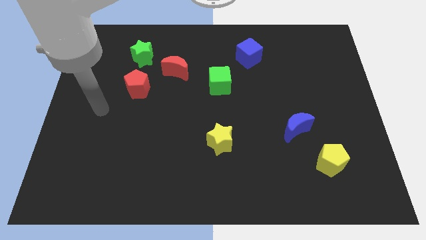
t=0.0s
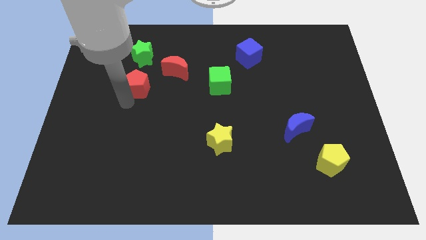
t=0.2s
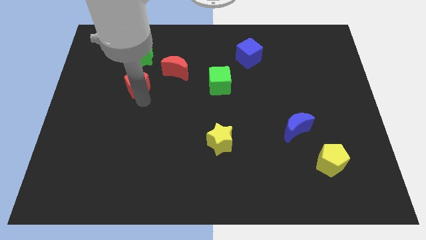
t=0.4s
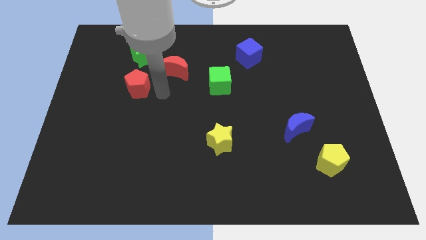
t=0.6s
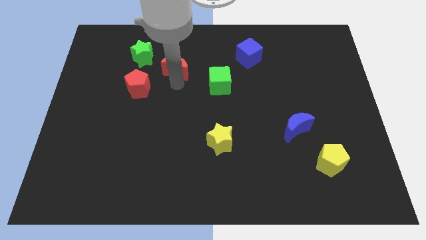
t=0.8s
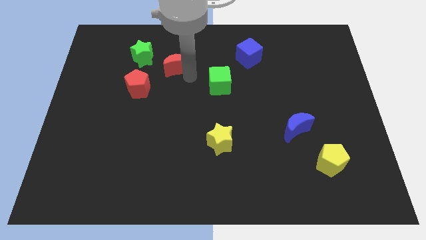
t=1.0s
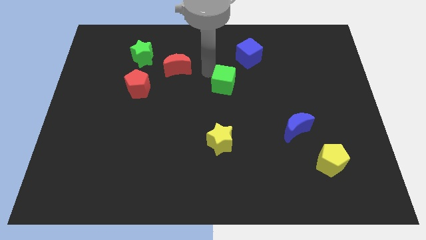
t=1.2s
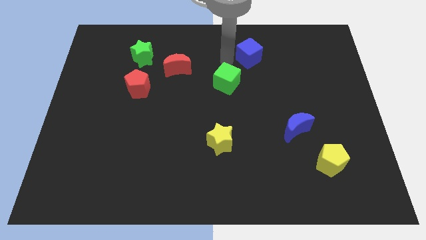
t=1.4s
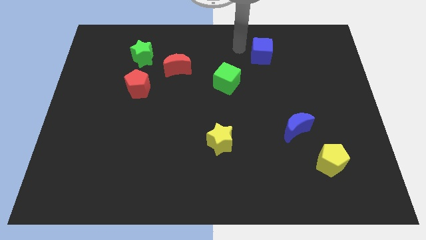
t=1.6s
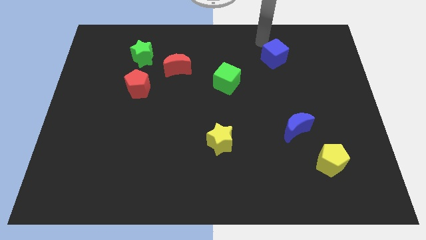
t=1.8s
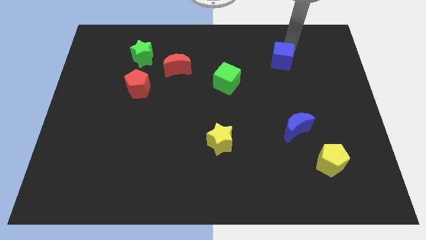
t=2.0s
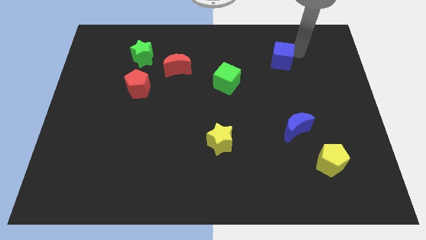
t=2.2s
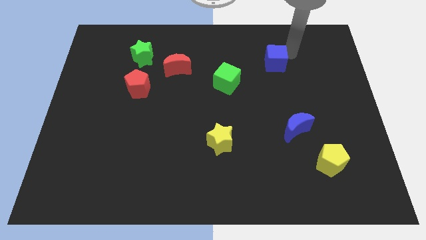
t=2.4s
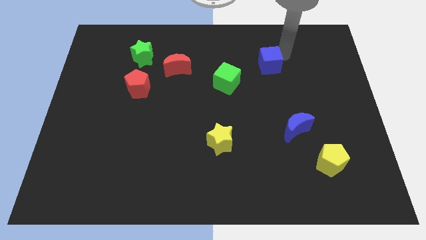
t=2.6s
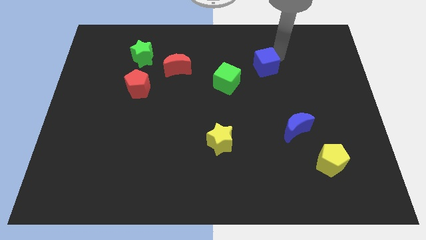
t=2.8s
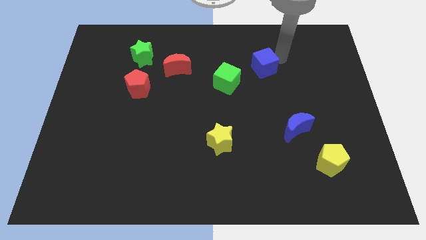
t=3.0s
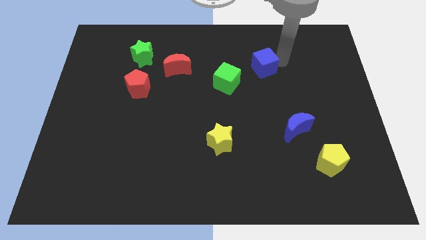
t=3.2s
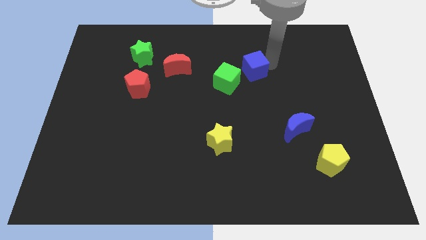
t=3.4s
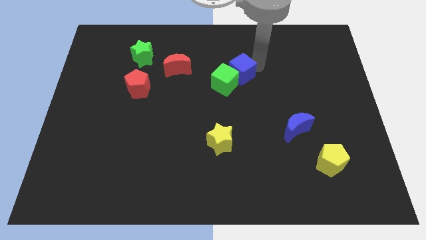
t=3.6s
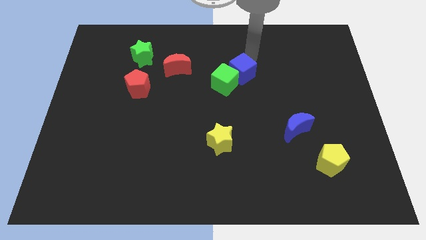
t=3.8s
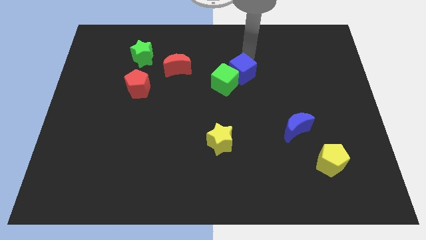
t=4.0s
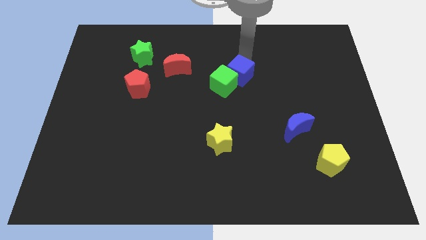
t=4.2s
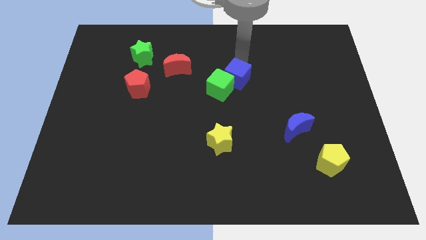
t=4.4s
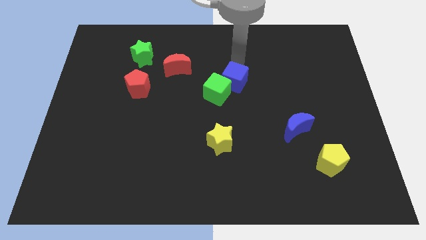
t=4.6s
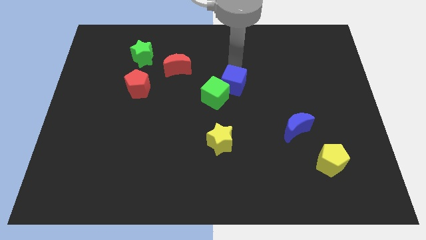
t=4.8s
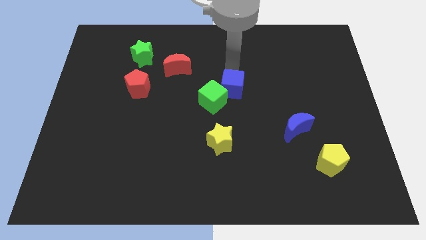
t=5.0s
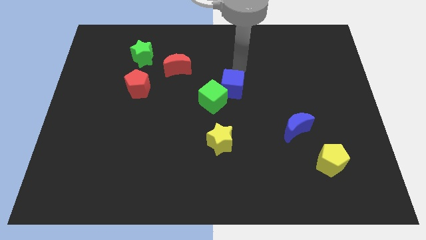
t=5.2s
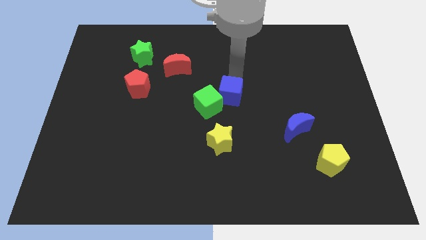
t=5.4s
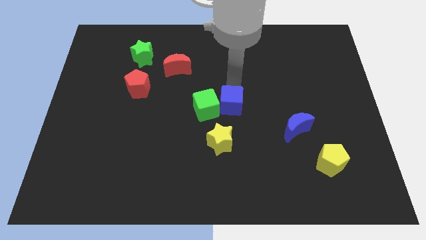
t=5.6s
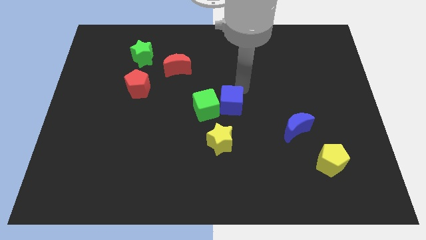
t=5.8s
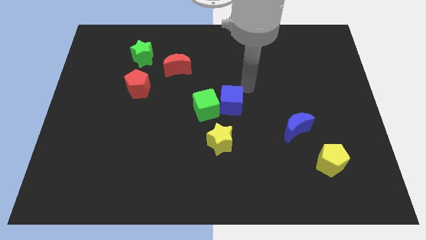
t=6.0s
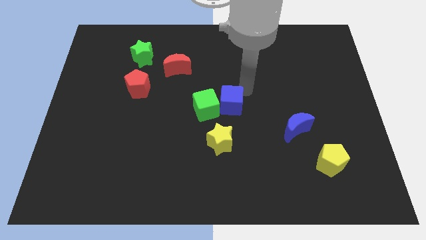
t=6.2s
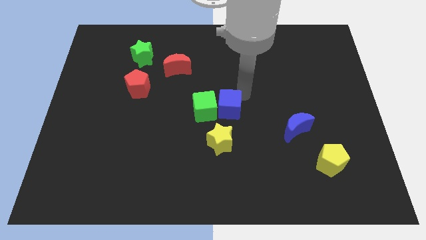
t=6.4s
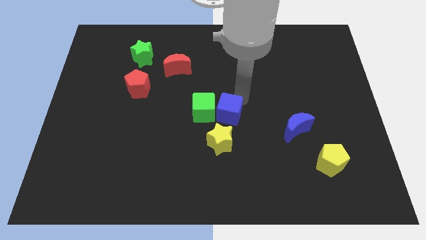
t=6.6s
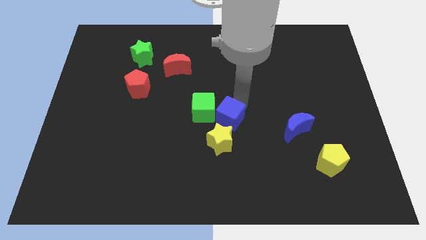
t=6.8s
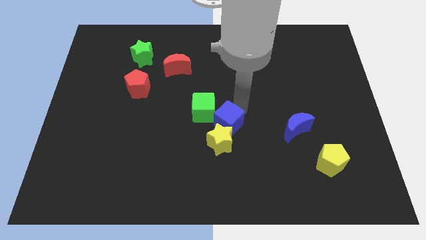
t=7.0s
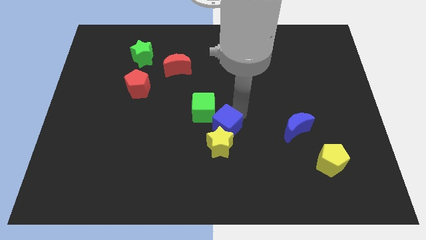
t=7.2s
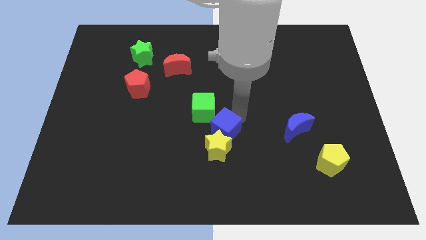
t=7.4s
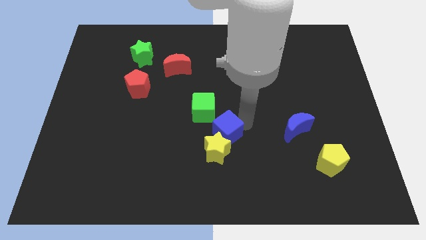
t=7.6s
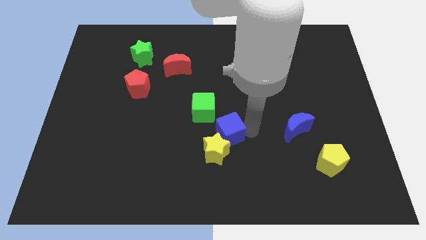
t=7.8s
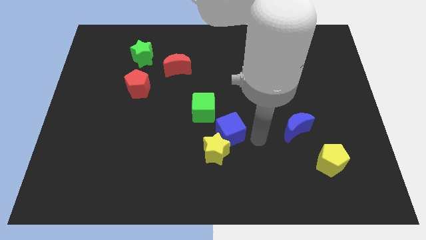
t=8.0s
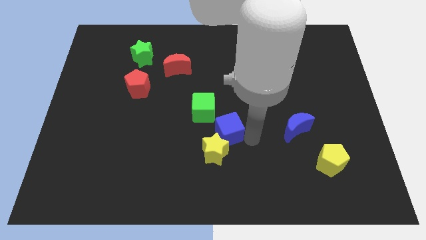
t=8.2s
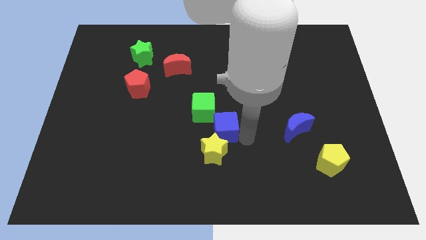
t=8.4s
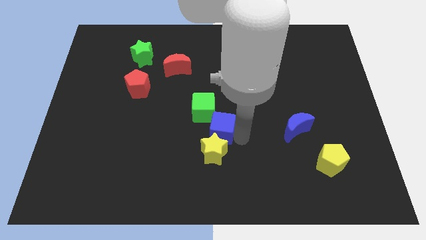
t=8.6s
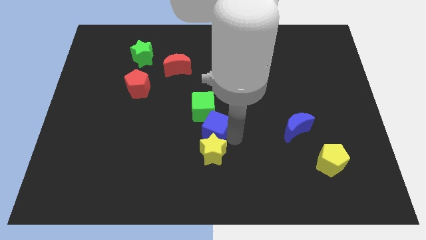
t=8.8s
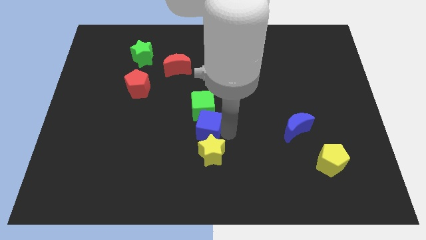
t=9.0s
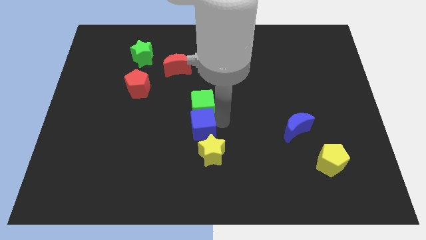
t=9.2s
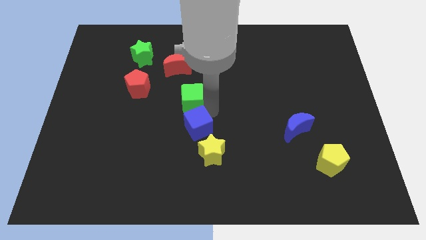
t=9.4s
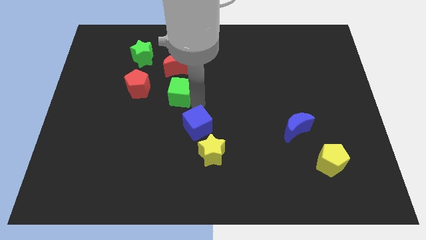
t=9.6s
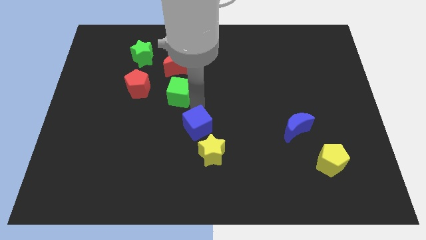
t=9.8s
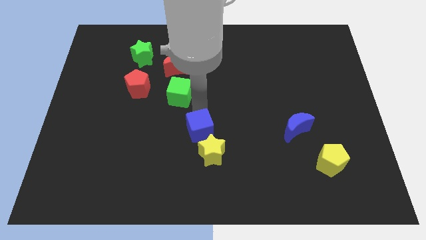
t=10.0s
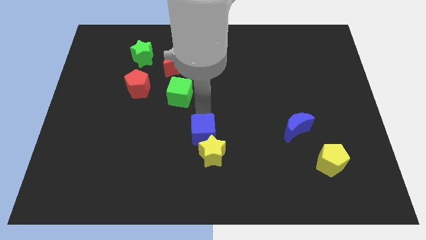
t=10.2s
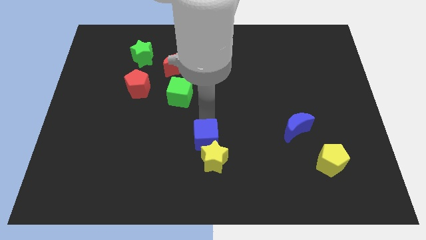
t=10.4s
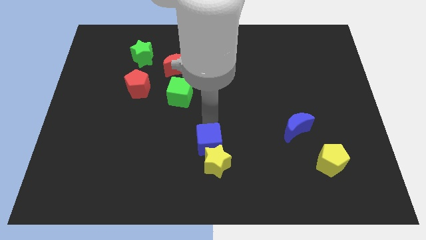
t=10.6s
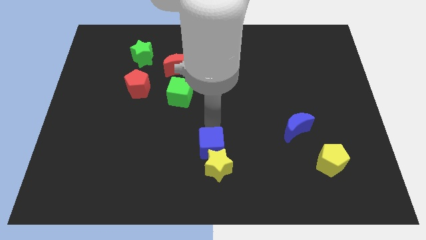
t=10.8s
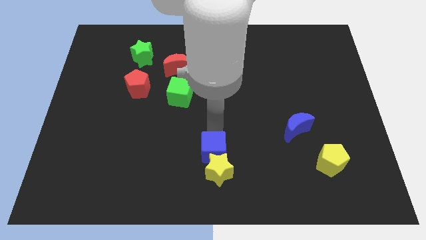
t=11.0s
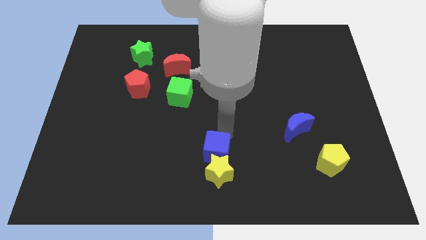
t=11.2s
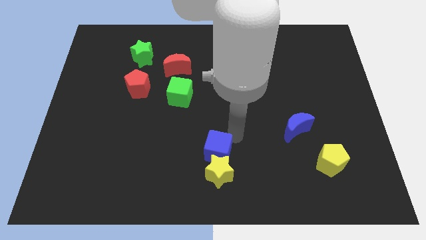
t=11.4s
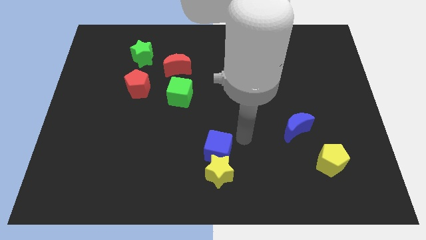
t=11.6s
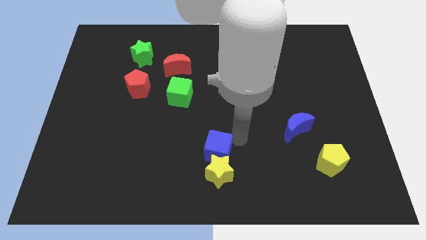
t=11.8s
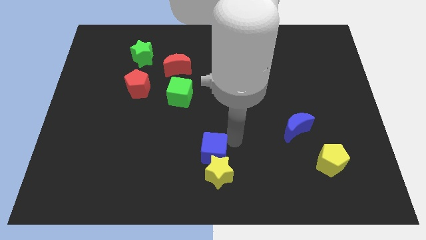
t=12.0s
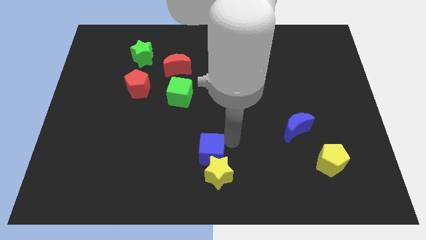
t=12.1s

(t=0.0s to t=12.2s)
put the blue cube to the bottom

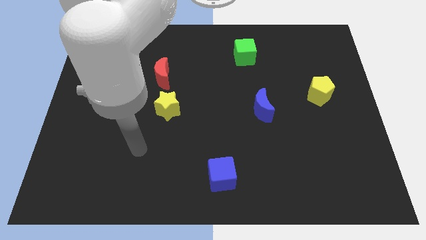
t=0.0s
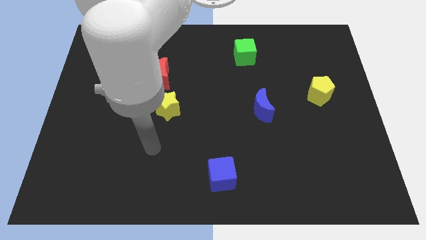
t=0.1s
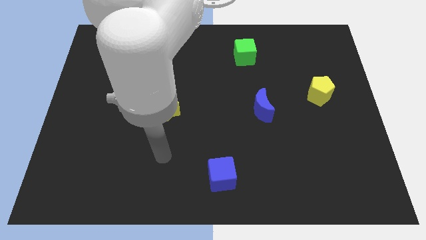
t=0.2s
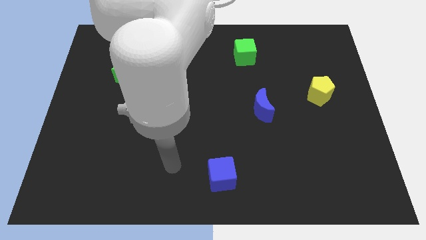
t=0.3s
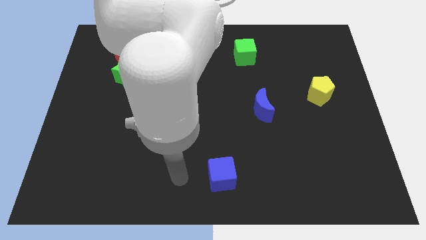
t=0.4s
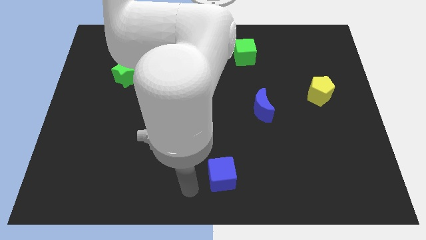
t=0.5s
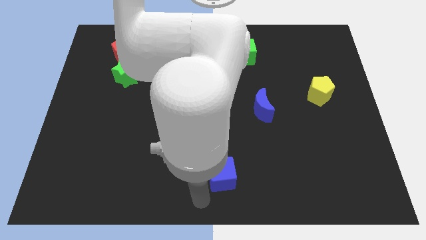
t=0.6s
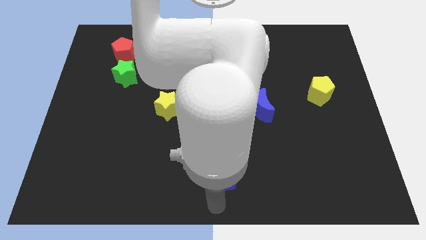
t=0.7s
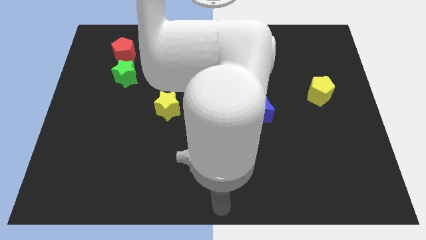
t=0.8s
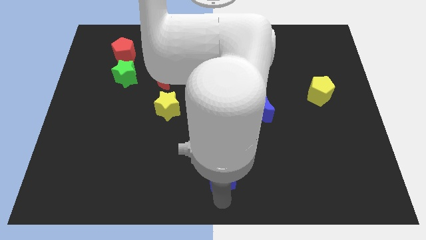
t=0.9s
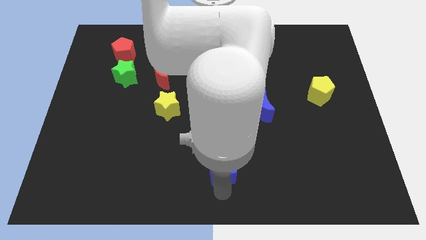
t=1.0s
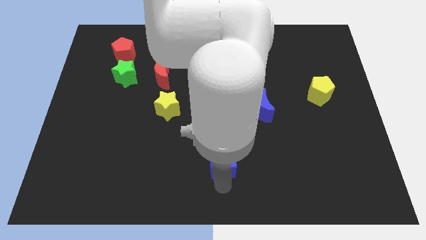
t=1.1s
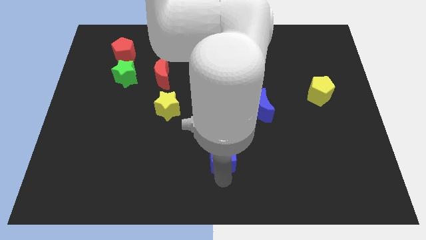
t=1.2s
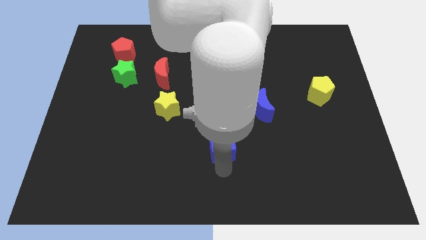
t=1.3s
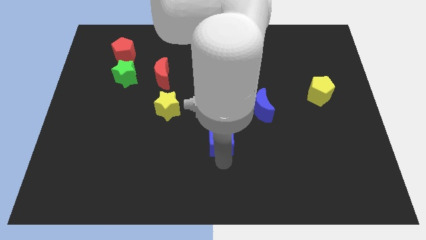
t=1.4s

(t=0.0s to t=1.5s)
slide the blue cube to the middle
